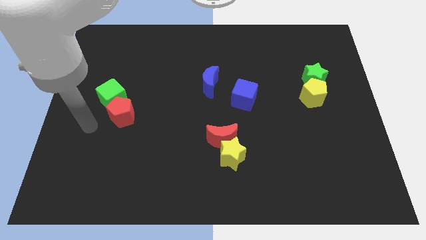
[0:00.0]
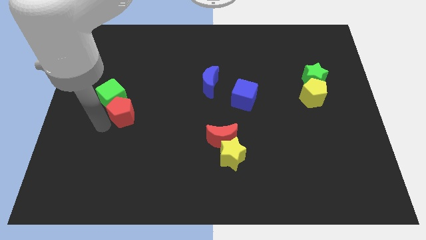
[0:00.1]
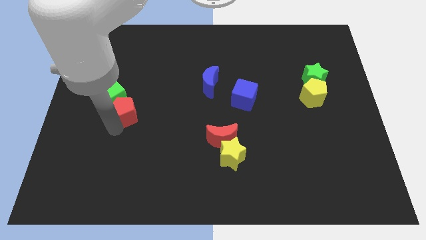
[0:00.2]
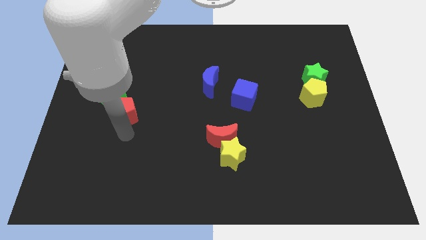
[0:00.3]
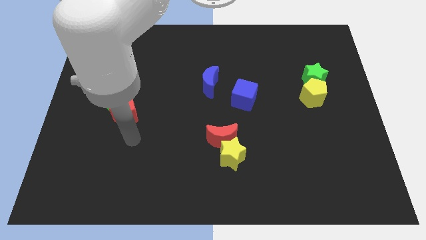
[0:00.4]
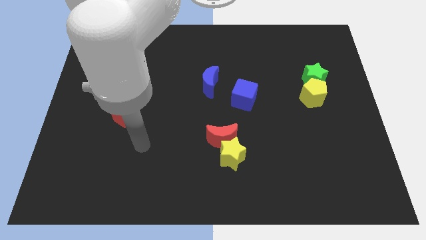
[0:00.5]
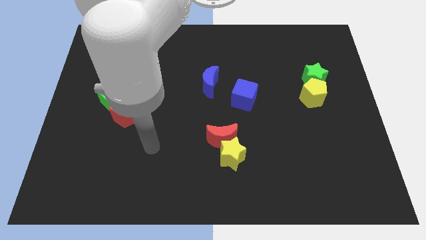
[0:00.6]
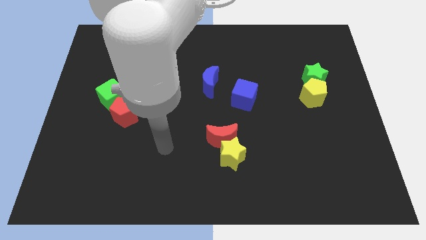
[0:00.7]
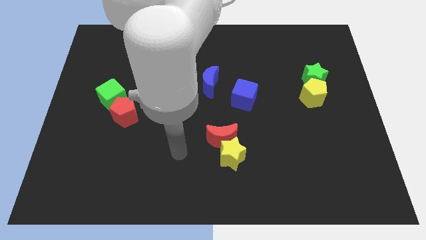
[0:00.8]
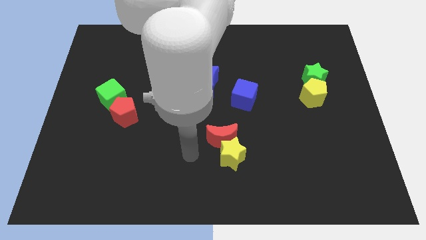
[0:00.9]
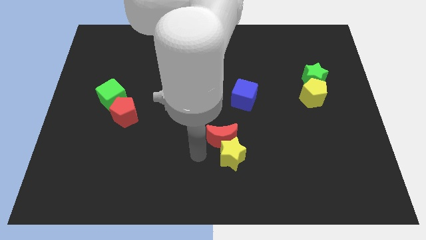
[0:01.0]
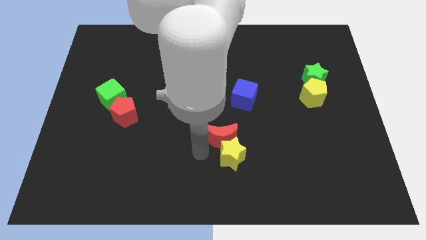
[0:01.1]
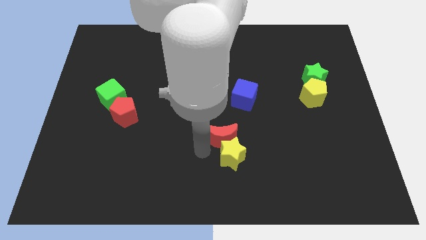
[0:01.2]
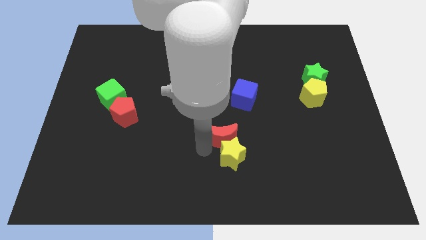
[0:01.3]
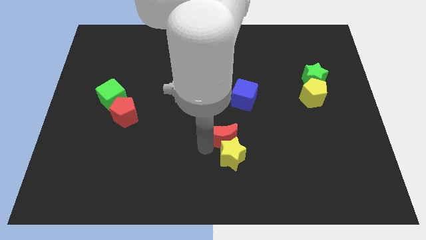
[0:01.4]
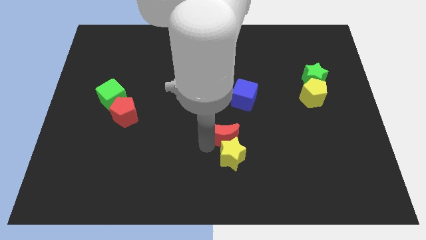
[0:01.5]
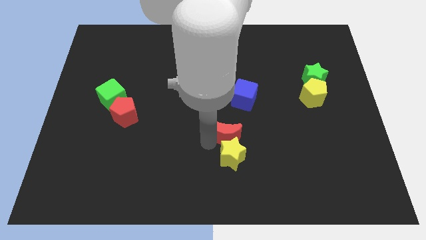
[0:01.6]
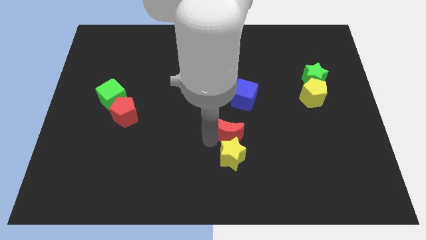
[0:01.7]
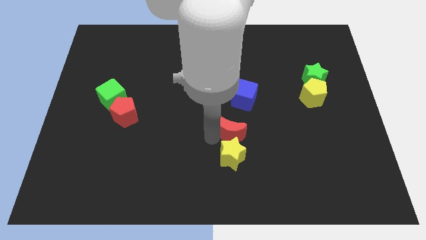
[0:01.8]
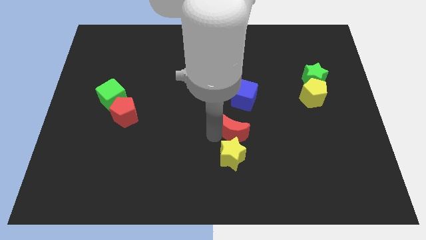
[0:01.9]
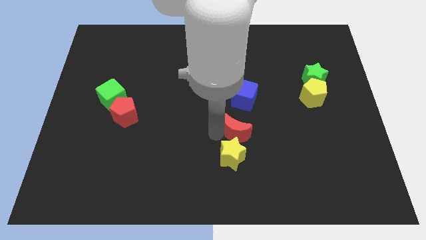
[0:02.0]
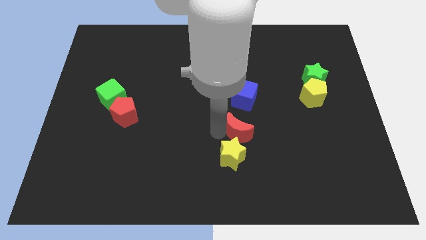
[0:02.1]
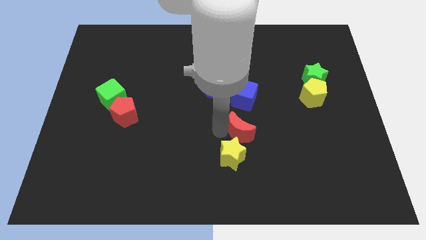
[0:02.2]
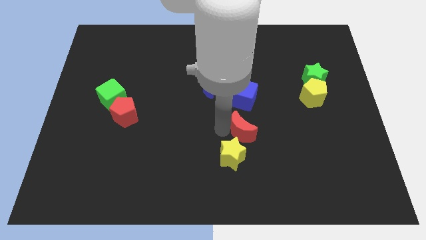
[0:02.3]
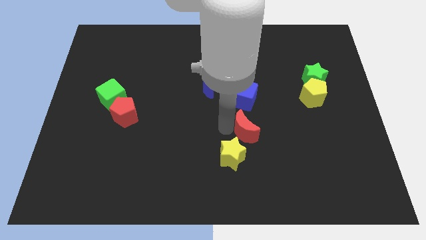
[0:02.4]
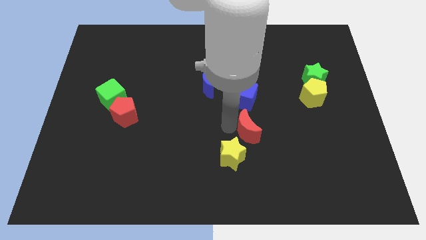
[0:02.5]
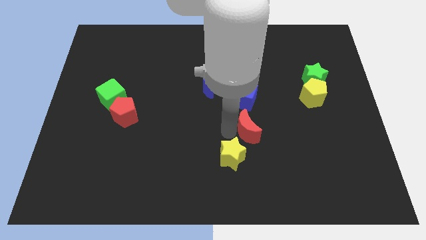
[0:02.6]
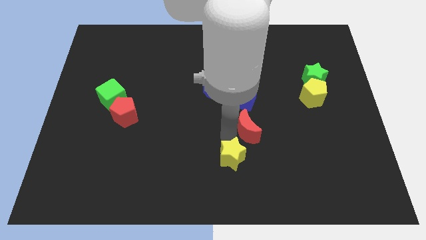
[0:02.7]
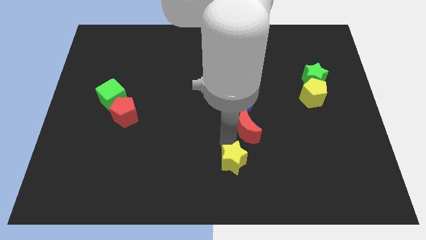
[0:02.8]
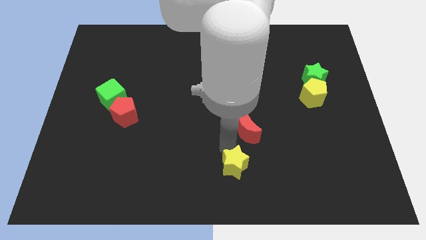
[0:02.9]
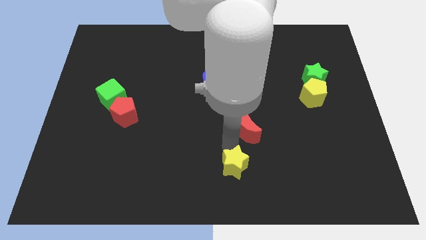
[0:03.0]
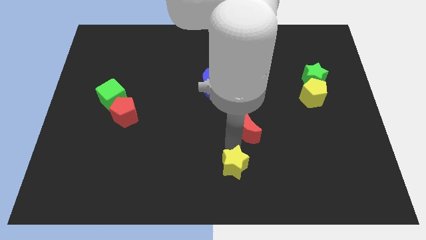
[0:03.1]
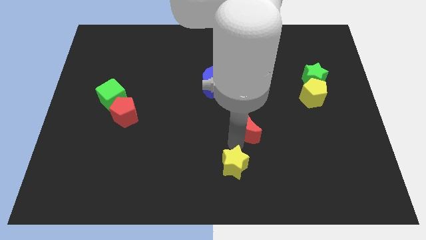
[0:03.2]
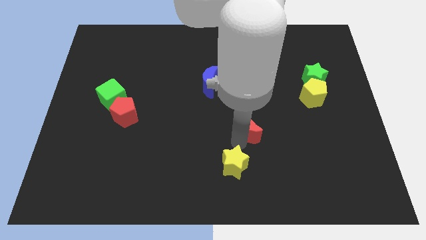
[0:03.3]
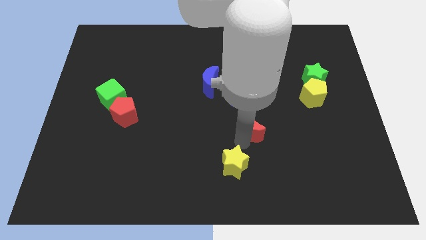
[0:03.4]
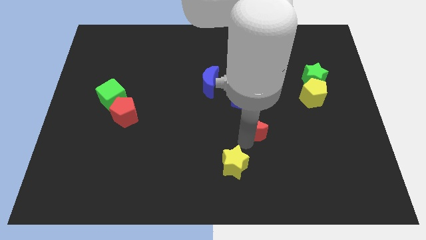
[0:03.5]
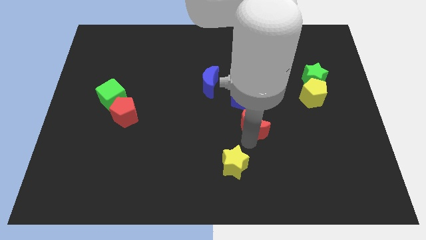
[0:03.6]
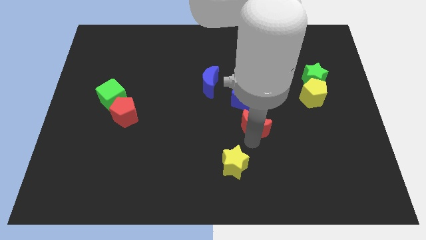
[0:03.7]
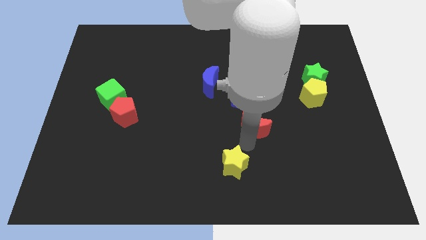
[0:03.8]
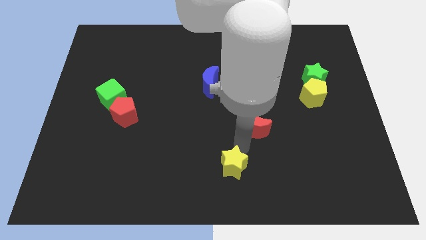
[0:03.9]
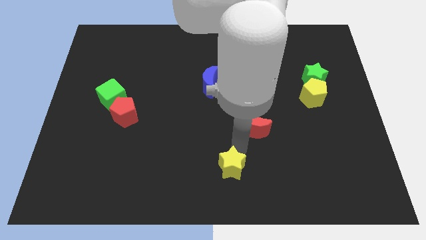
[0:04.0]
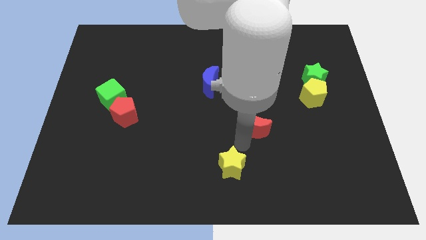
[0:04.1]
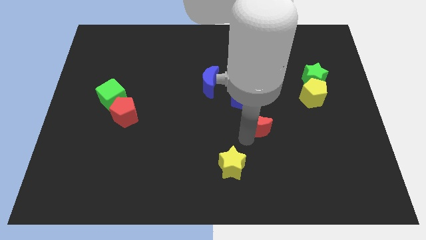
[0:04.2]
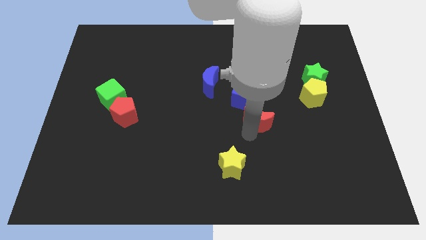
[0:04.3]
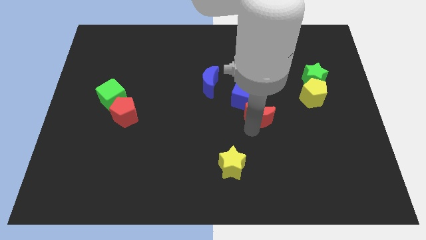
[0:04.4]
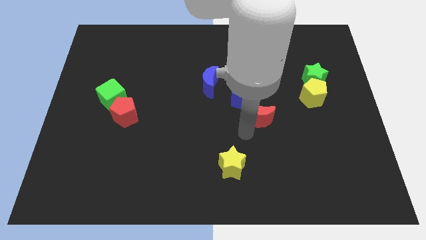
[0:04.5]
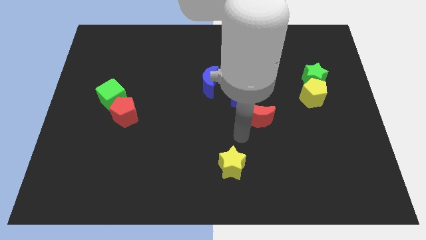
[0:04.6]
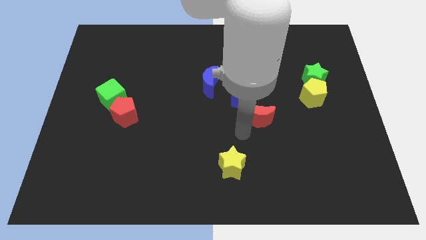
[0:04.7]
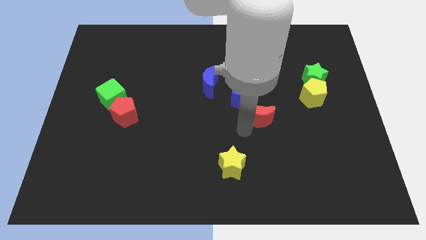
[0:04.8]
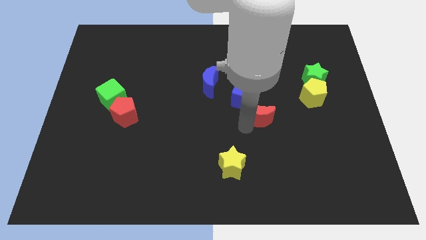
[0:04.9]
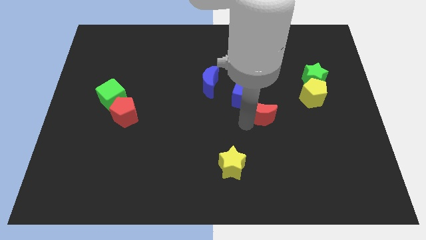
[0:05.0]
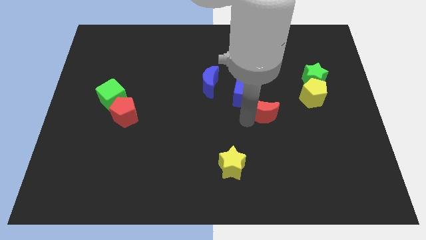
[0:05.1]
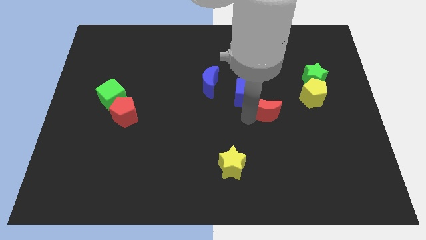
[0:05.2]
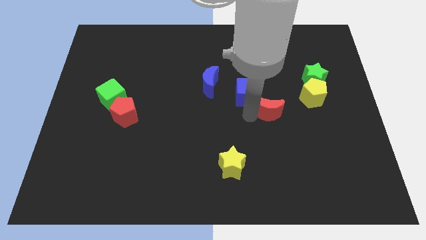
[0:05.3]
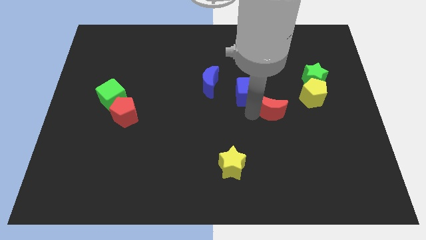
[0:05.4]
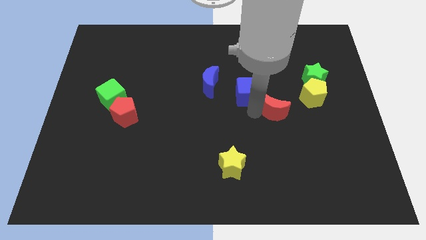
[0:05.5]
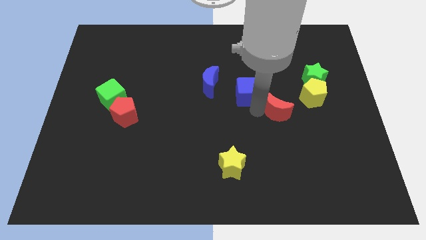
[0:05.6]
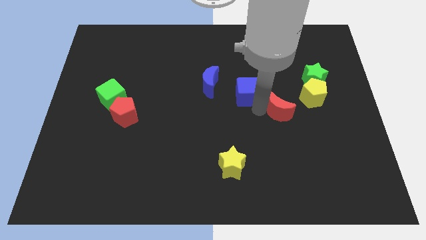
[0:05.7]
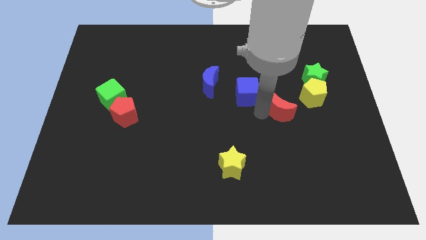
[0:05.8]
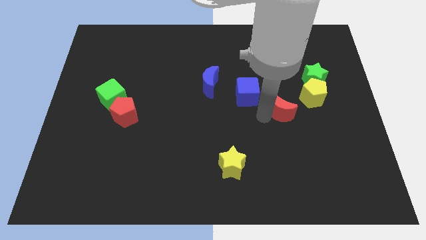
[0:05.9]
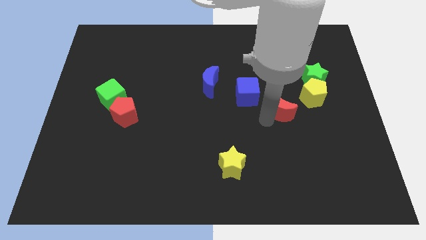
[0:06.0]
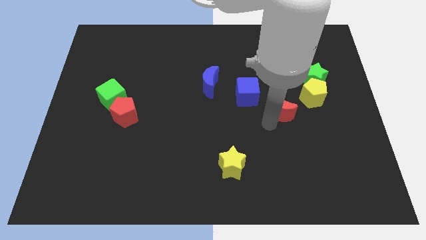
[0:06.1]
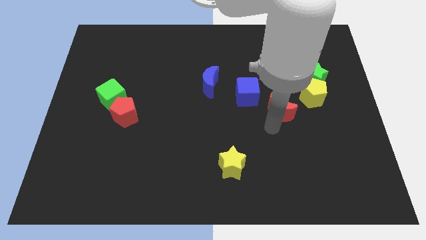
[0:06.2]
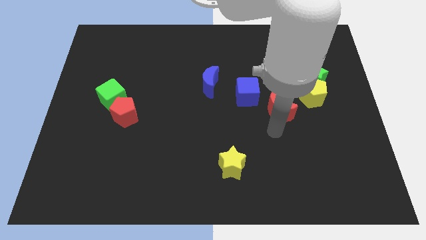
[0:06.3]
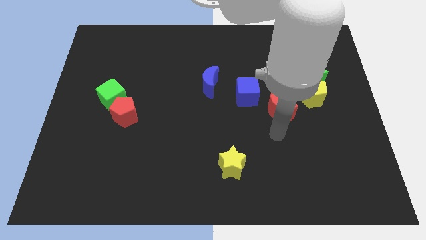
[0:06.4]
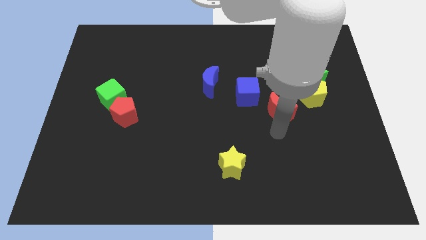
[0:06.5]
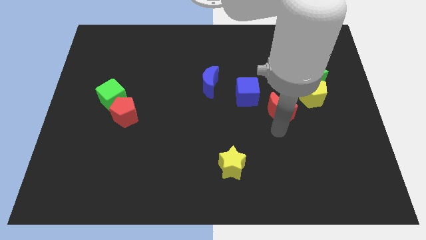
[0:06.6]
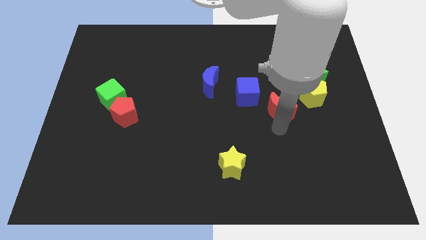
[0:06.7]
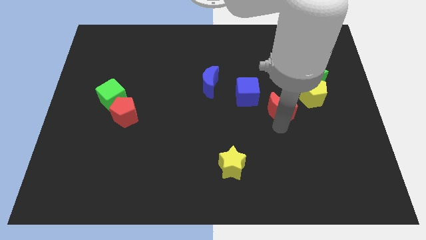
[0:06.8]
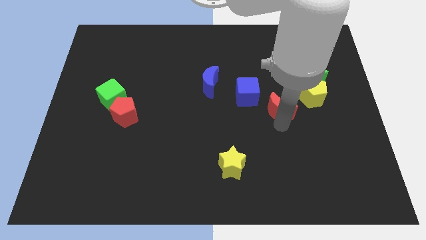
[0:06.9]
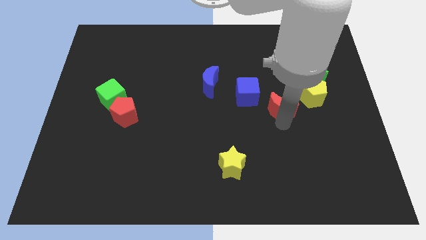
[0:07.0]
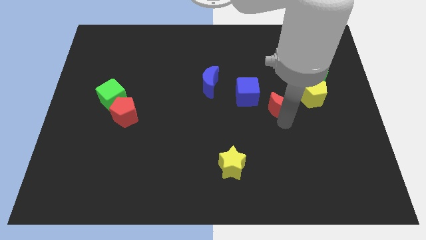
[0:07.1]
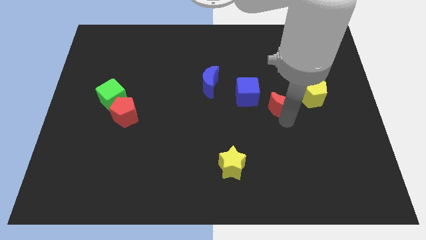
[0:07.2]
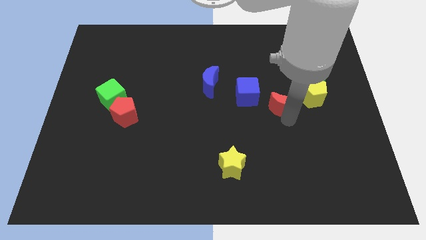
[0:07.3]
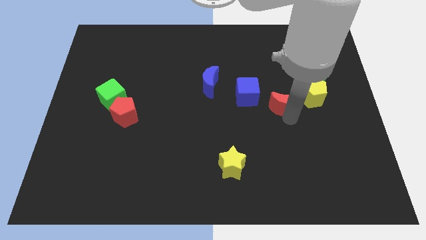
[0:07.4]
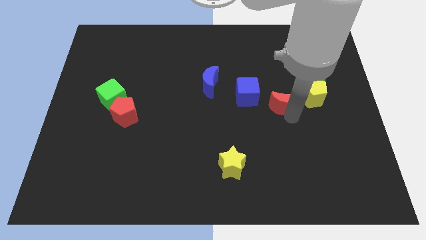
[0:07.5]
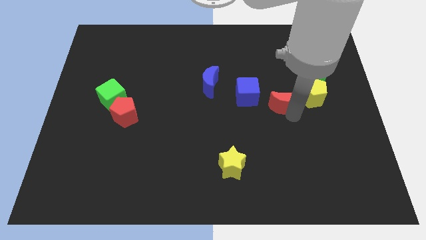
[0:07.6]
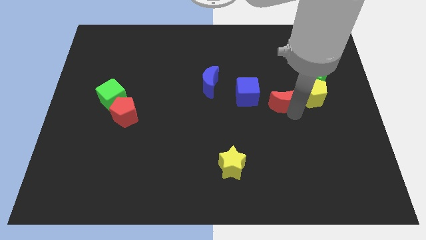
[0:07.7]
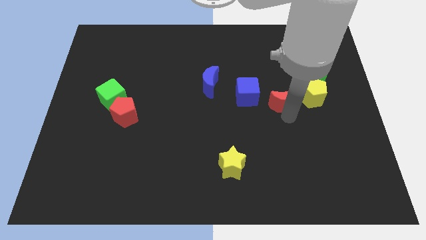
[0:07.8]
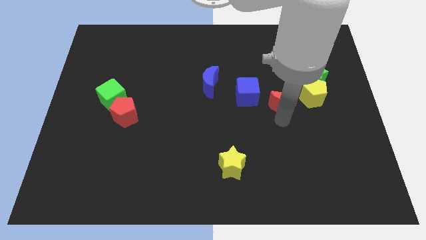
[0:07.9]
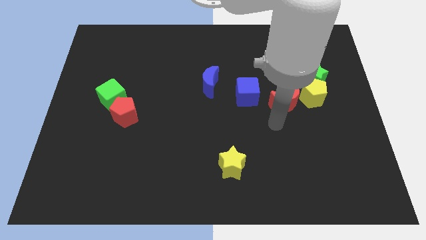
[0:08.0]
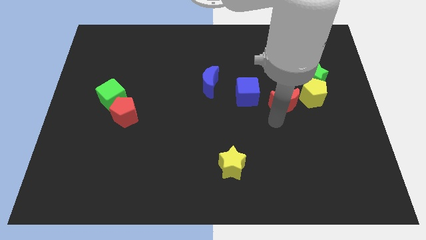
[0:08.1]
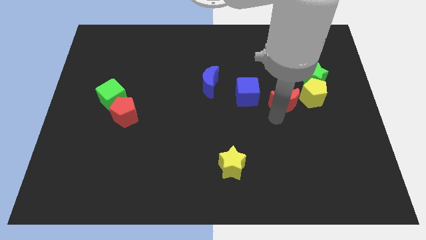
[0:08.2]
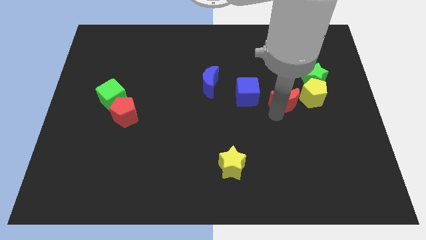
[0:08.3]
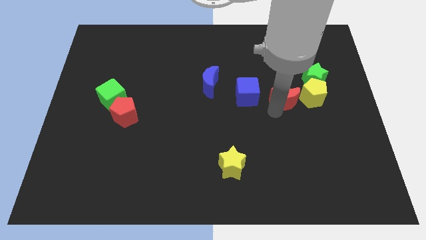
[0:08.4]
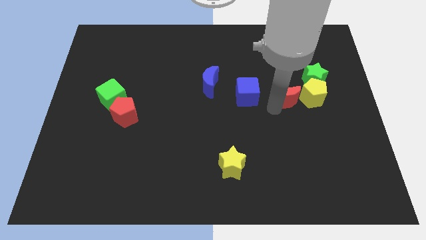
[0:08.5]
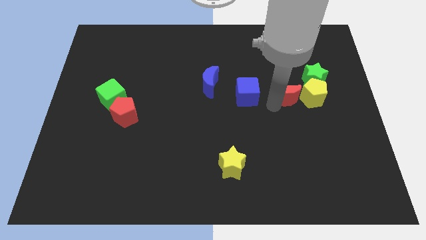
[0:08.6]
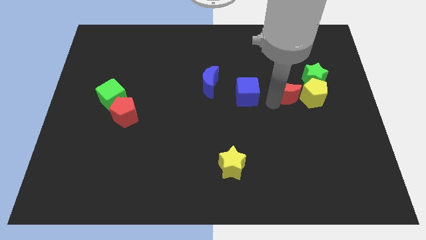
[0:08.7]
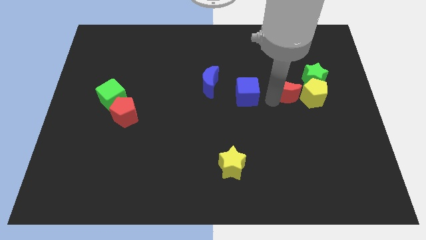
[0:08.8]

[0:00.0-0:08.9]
move the red moon upwards and then to the right
